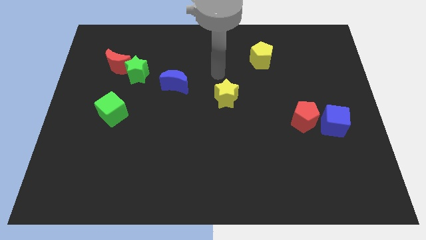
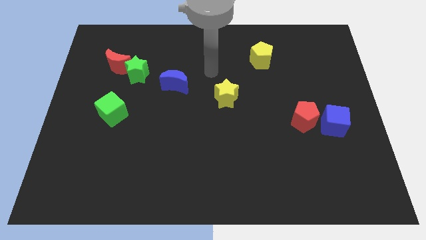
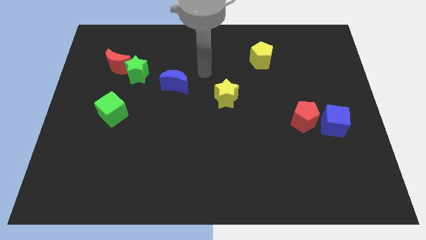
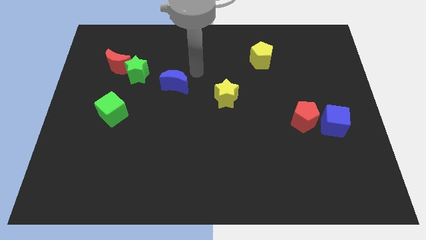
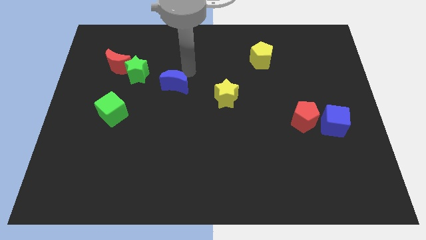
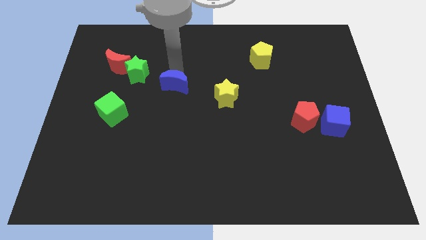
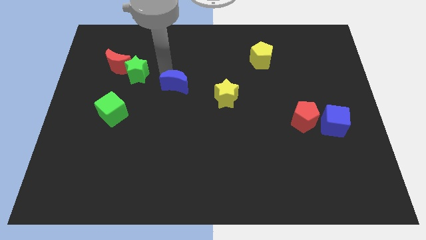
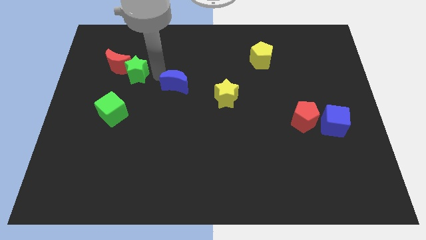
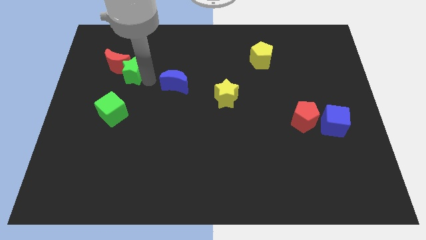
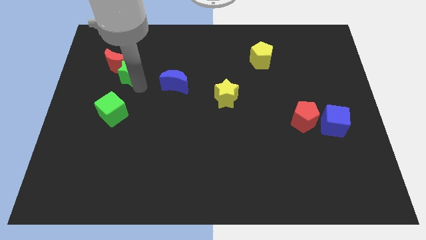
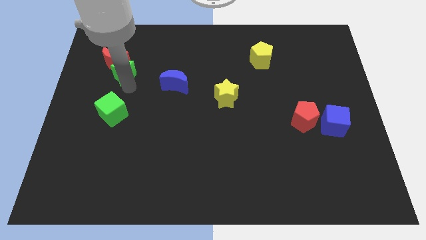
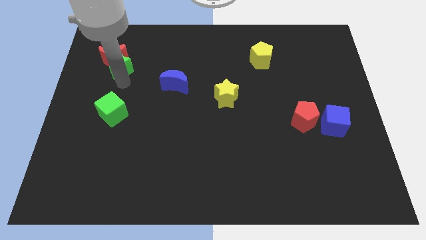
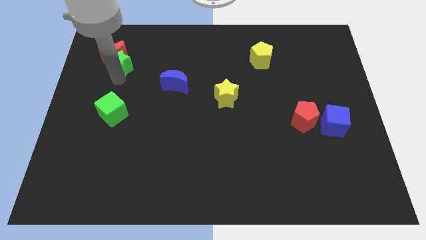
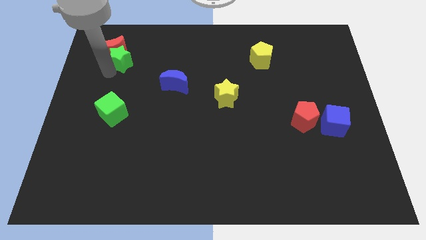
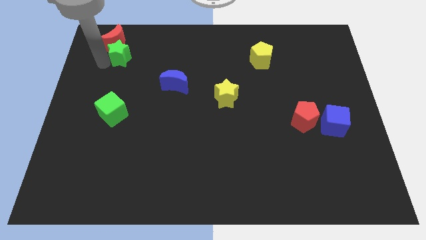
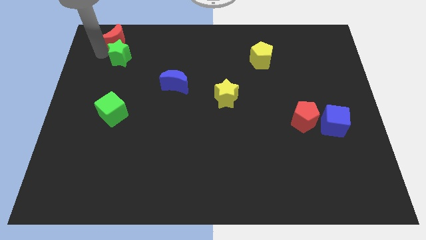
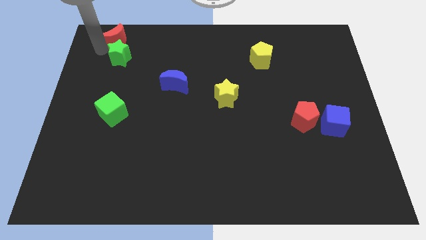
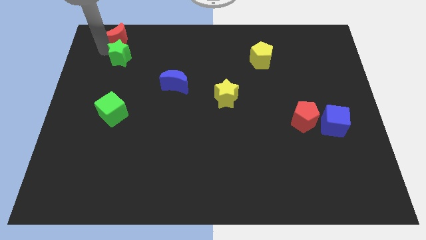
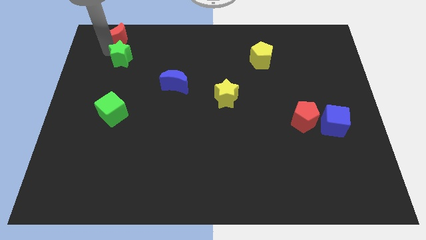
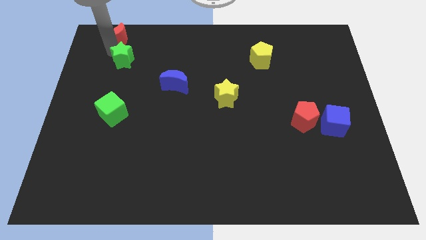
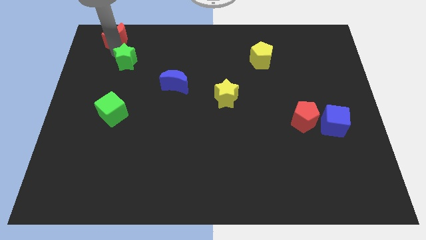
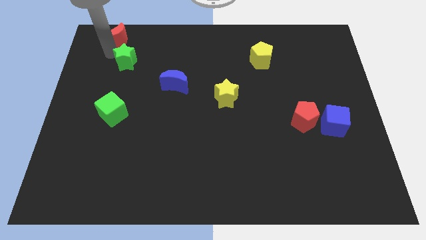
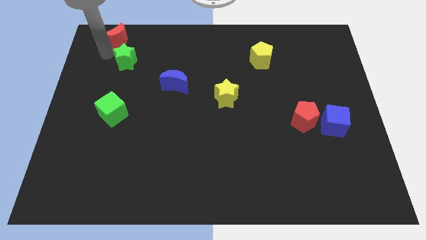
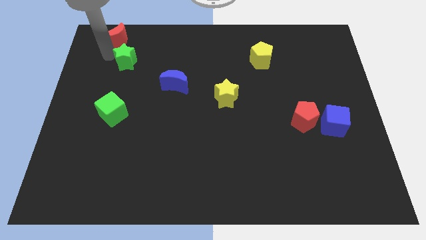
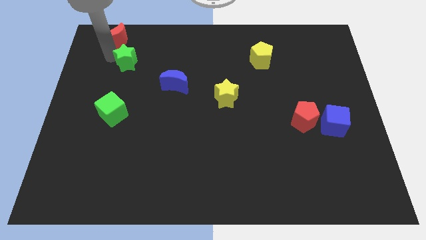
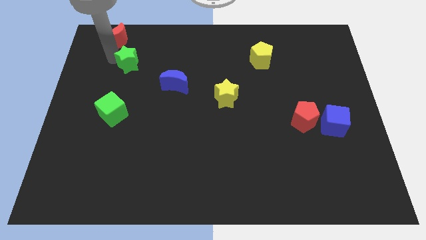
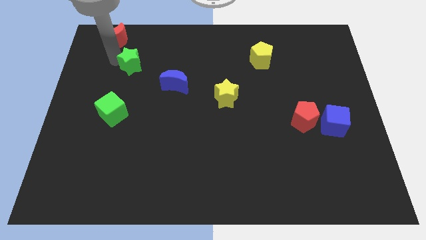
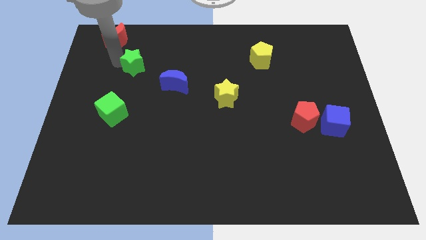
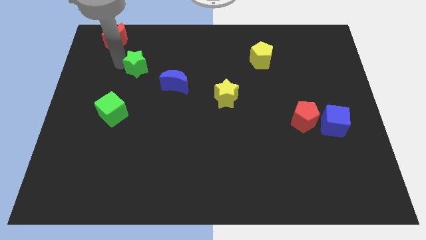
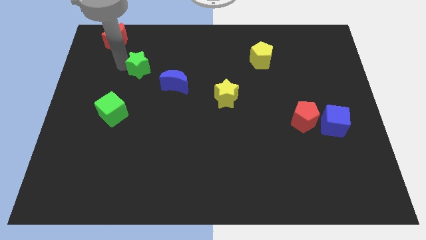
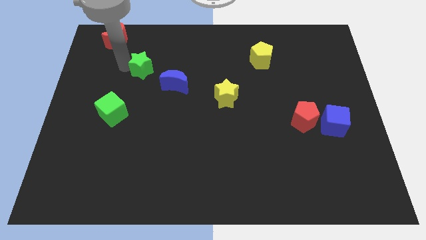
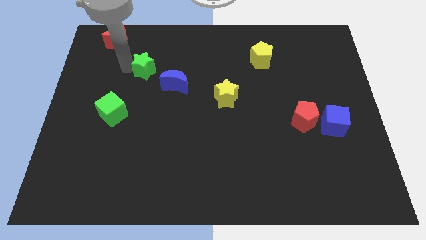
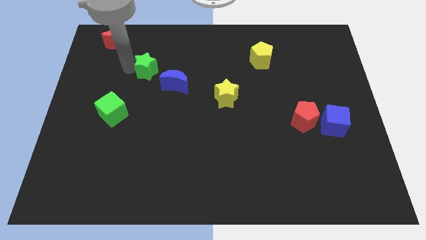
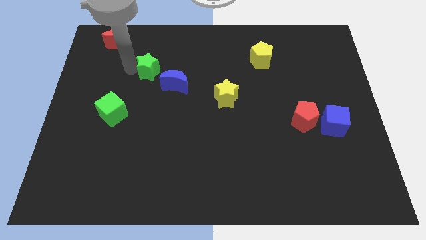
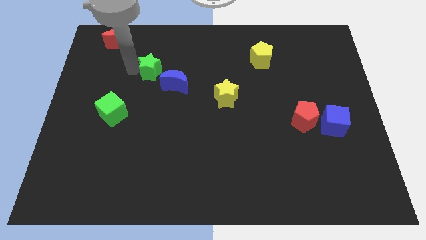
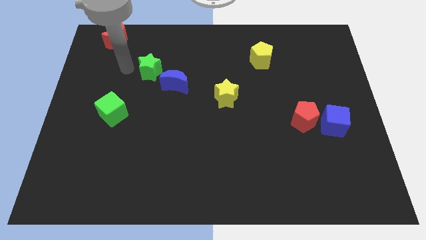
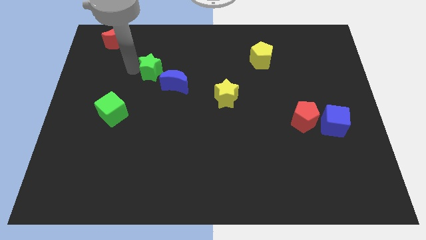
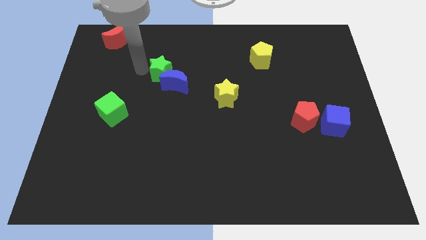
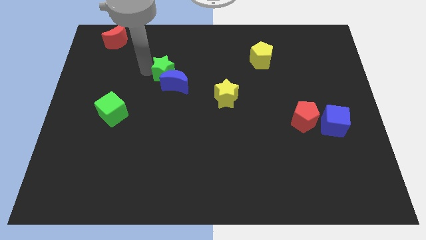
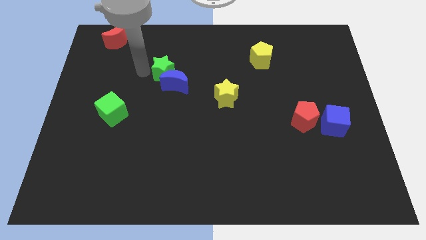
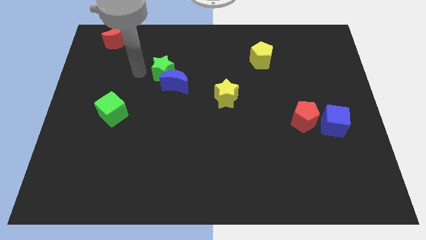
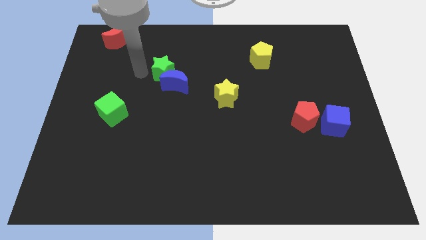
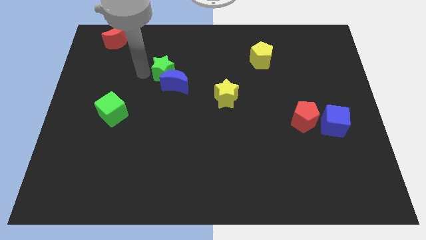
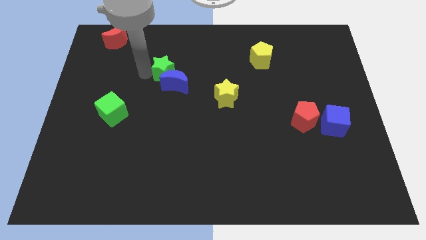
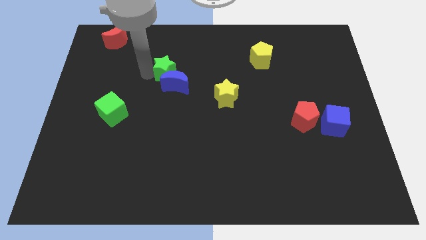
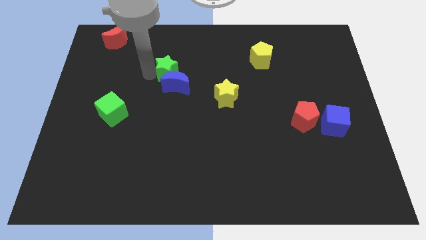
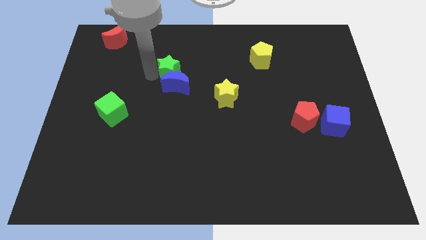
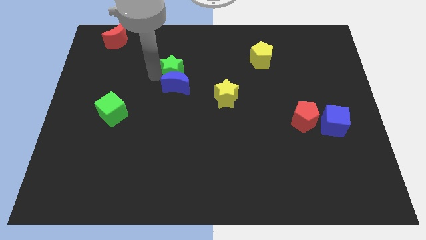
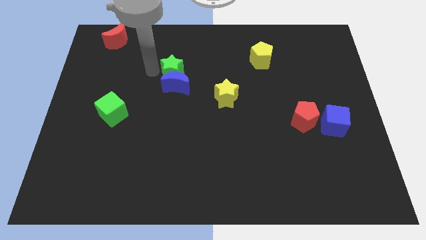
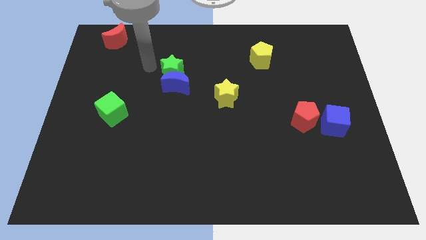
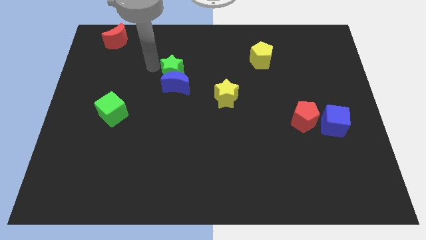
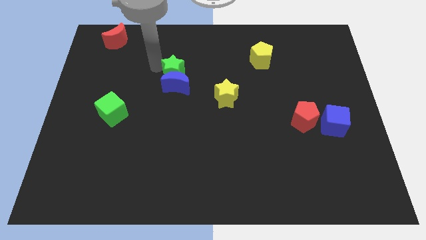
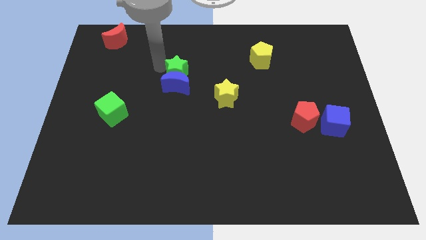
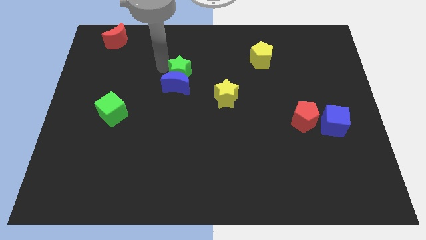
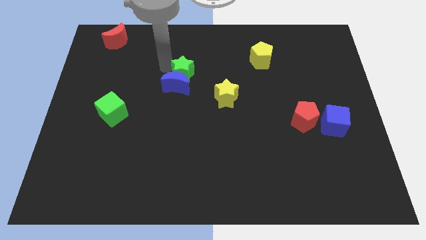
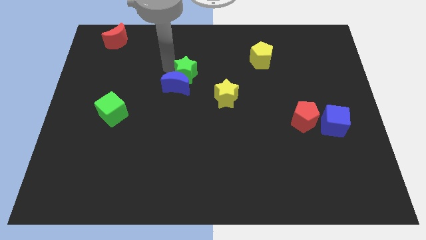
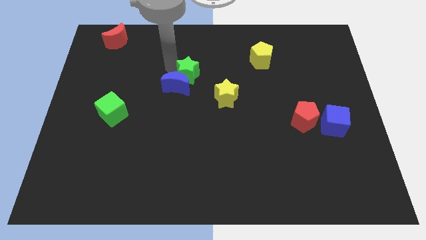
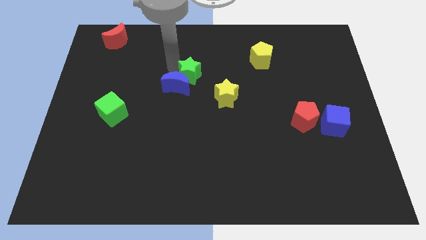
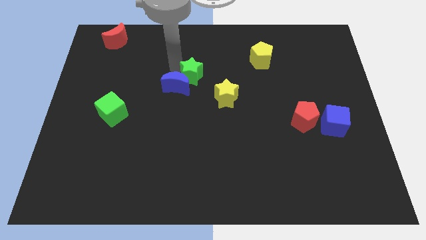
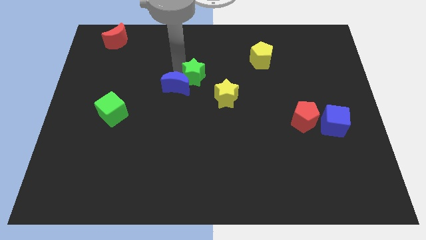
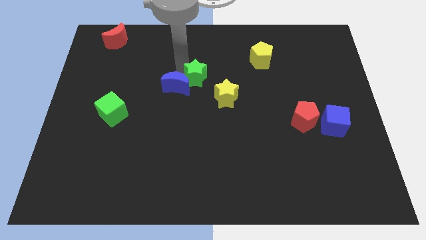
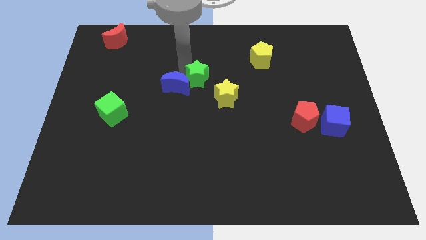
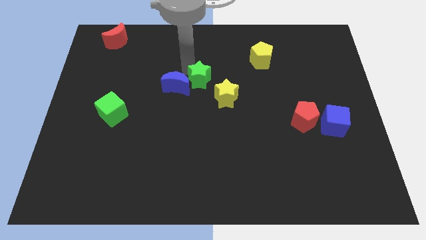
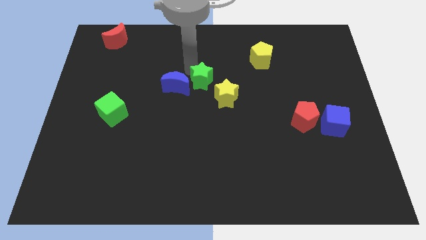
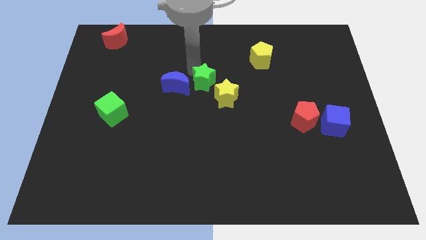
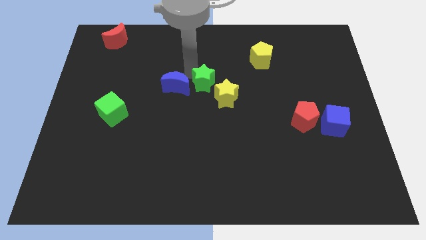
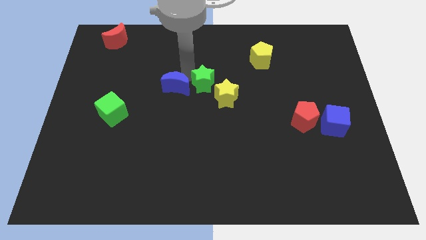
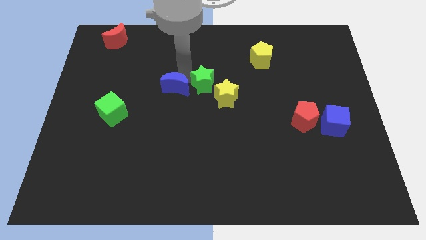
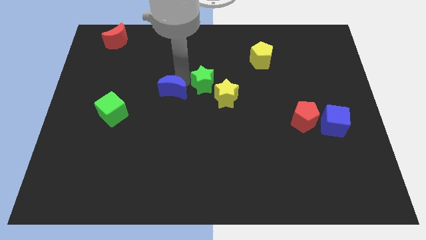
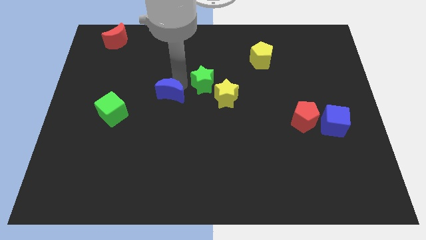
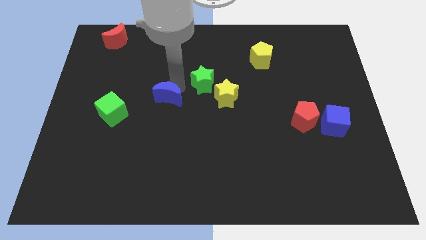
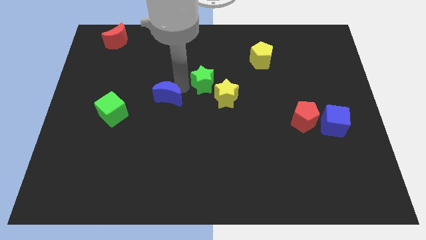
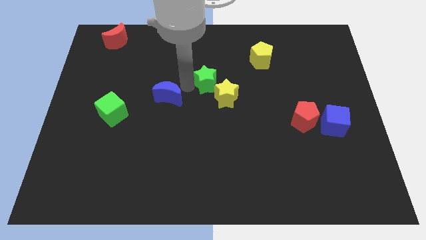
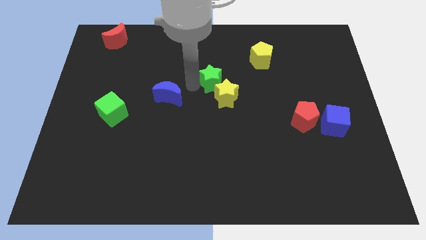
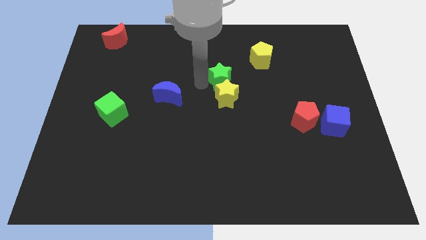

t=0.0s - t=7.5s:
move the green star right

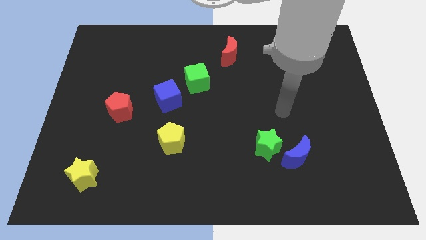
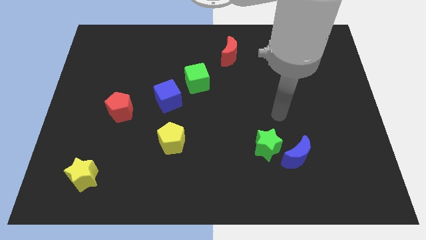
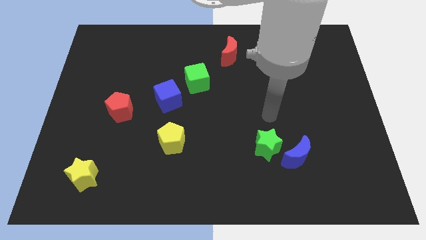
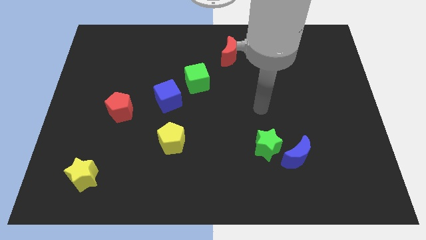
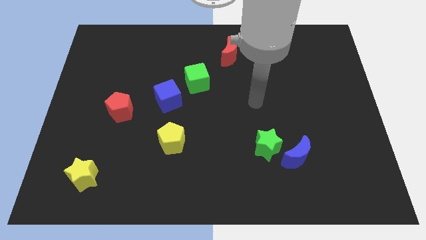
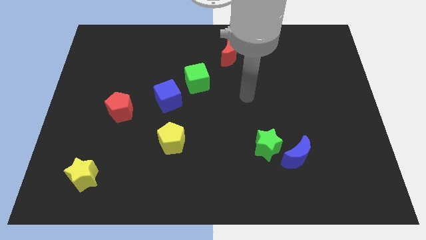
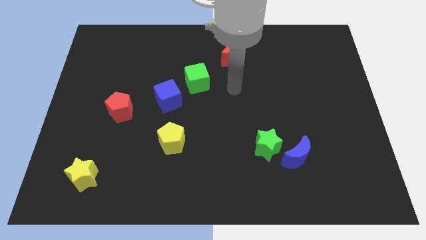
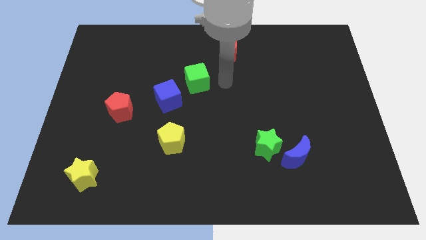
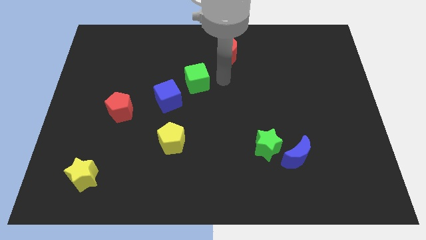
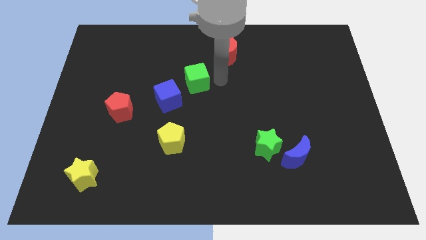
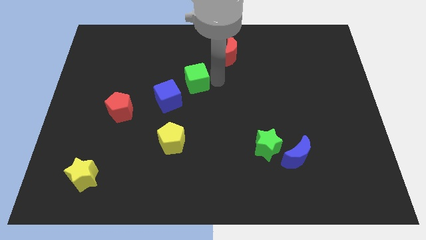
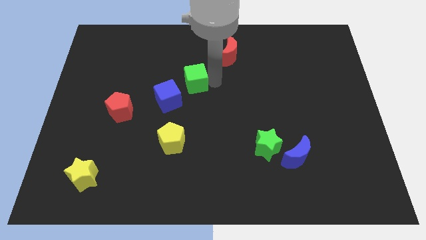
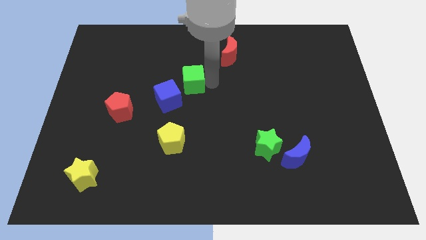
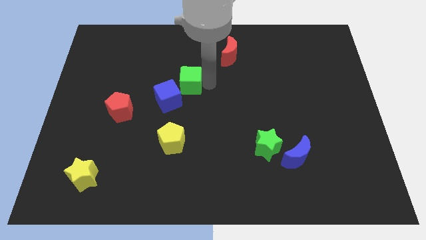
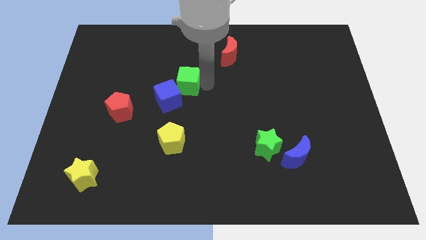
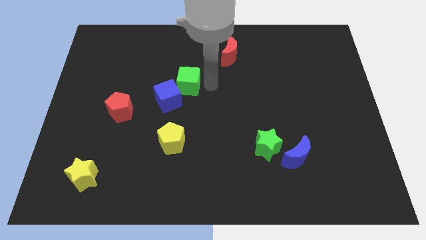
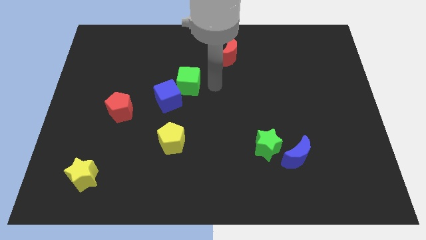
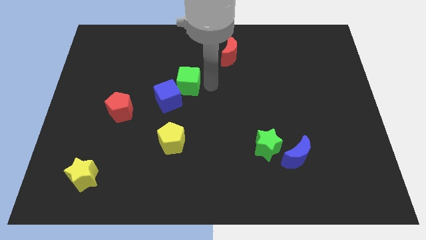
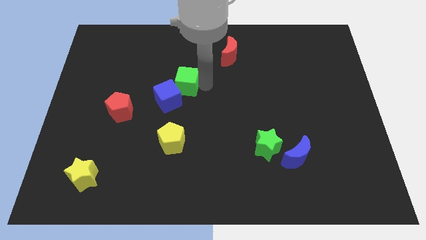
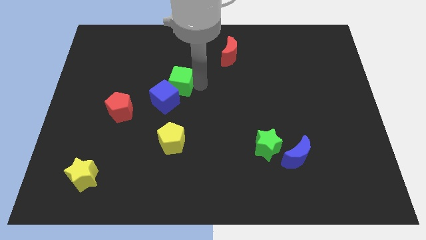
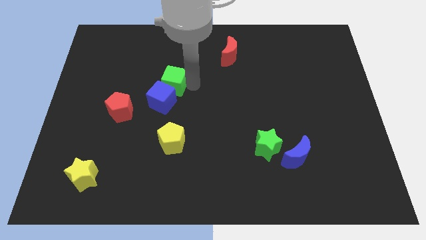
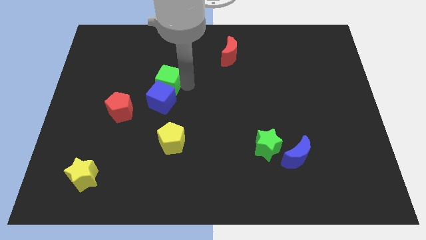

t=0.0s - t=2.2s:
push the green cube to the left slightly
